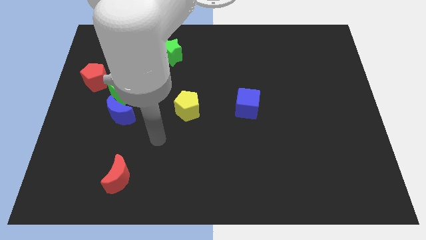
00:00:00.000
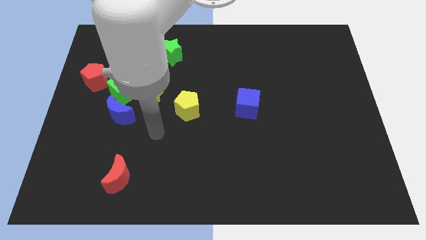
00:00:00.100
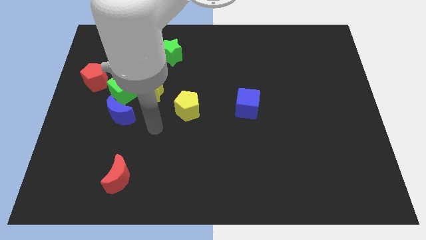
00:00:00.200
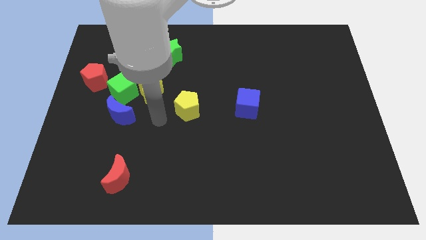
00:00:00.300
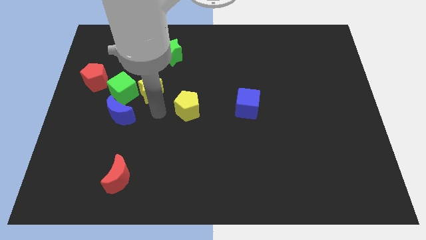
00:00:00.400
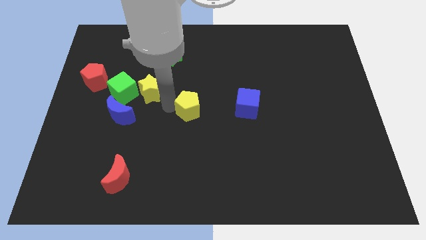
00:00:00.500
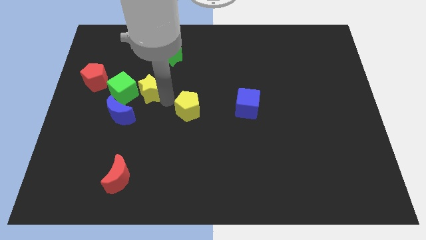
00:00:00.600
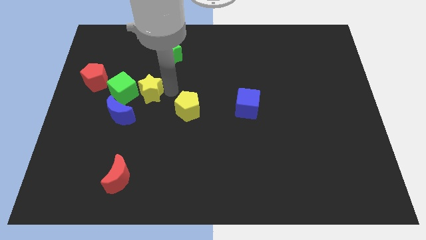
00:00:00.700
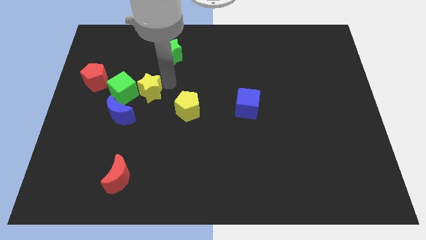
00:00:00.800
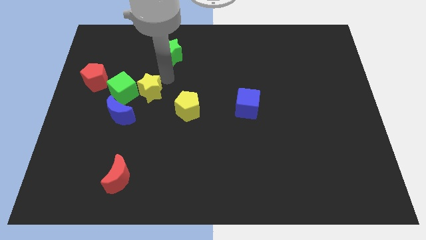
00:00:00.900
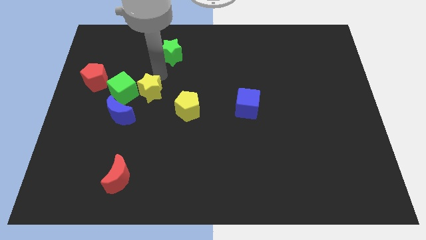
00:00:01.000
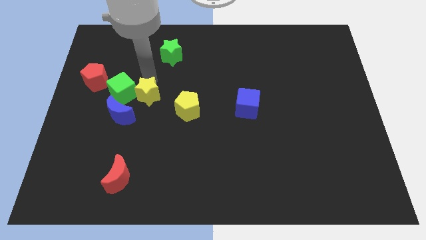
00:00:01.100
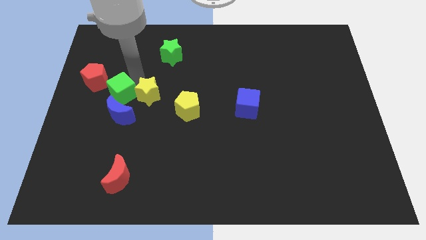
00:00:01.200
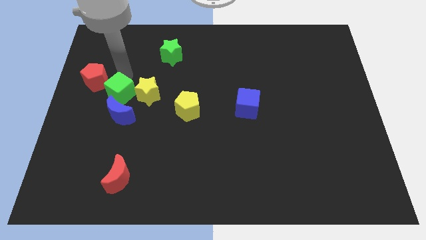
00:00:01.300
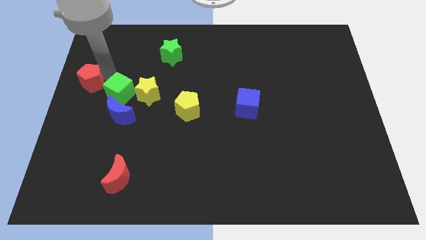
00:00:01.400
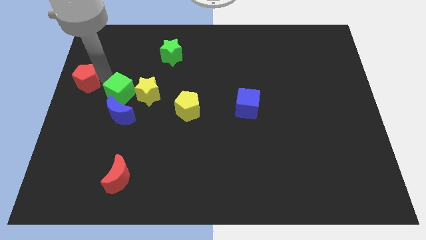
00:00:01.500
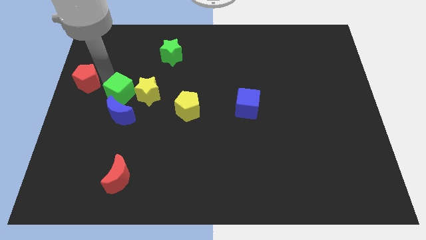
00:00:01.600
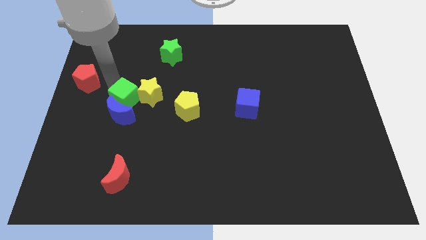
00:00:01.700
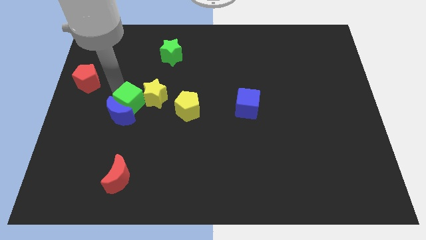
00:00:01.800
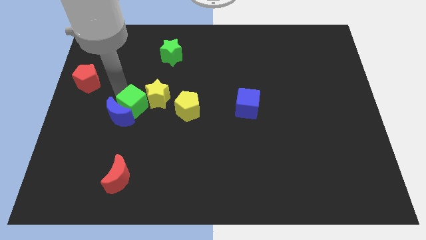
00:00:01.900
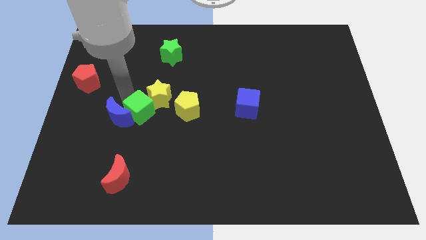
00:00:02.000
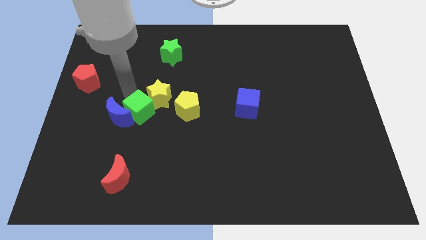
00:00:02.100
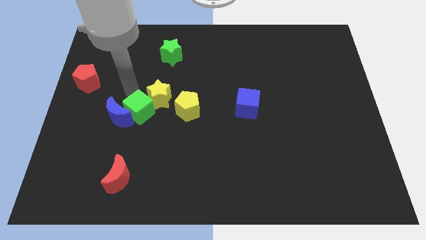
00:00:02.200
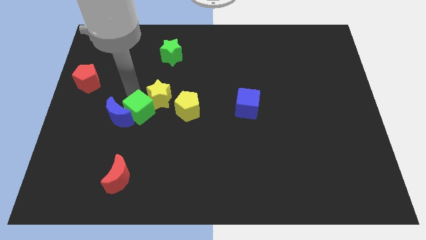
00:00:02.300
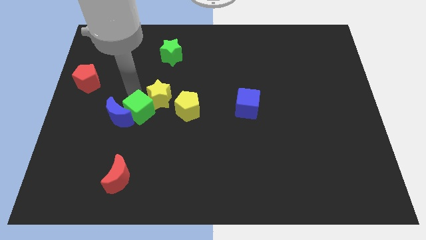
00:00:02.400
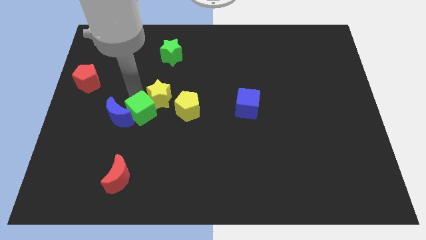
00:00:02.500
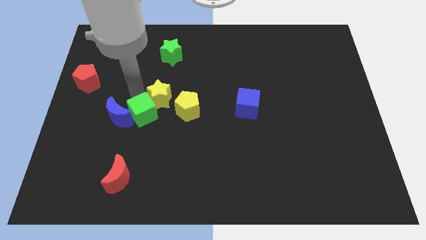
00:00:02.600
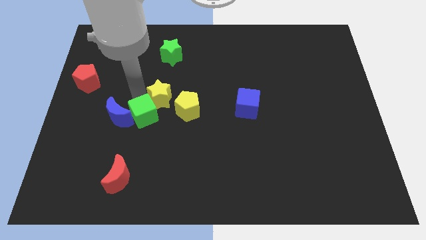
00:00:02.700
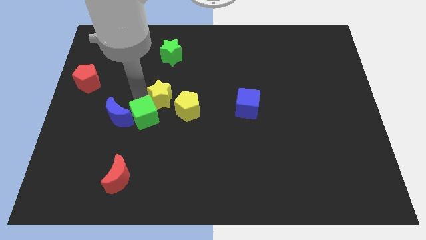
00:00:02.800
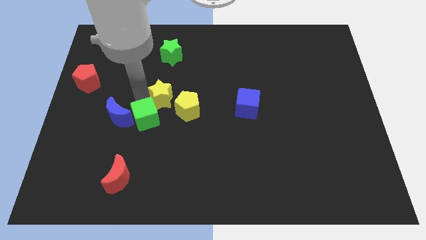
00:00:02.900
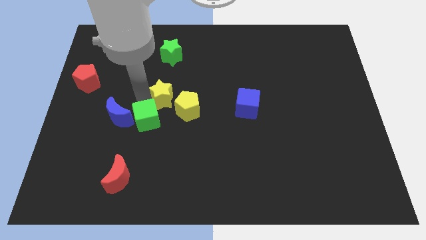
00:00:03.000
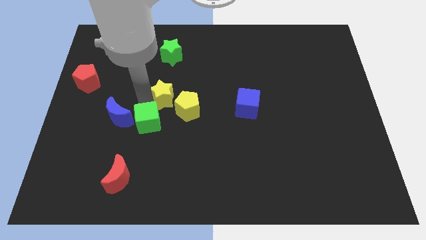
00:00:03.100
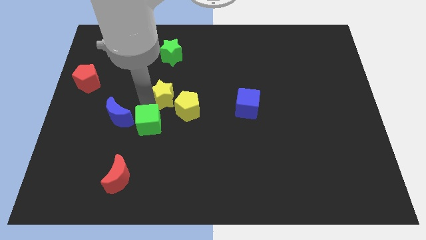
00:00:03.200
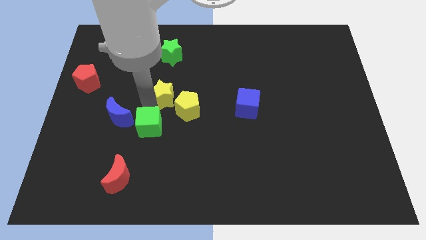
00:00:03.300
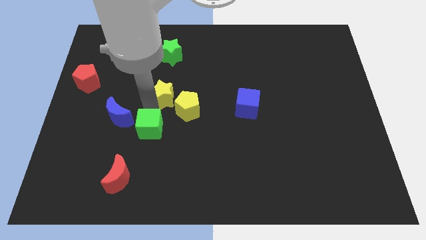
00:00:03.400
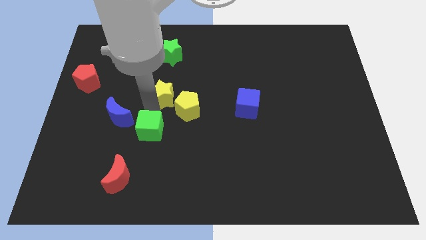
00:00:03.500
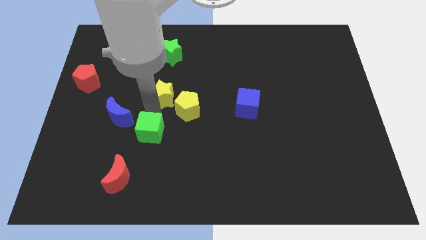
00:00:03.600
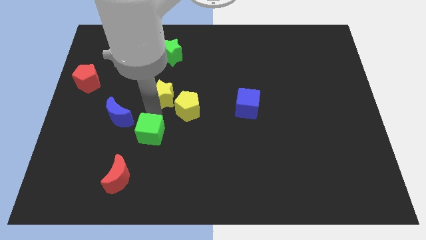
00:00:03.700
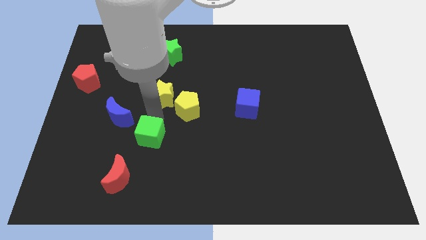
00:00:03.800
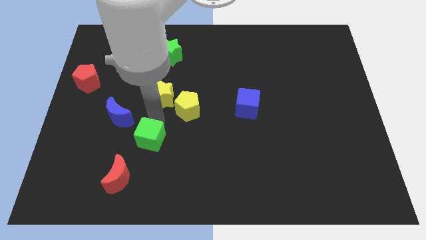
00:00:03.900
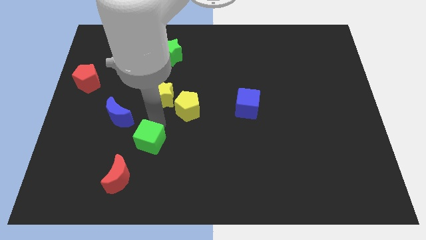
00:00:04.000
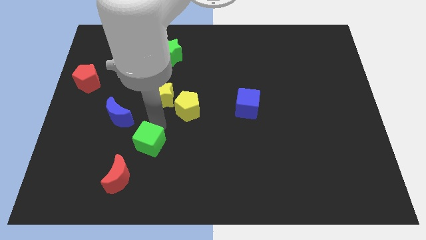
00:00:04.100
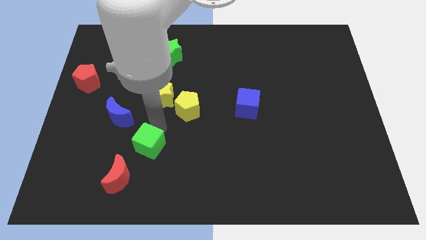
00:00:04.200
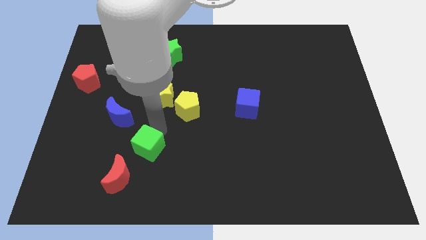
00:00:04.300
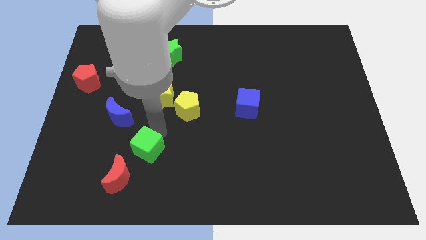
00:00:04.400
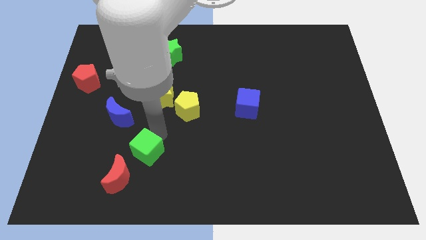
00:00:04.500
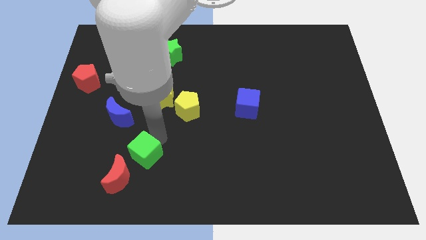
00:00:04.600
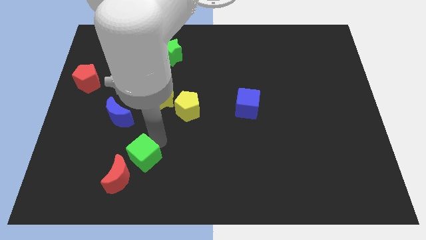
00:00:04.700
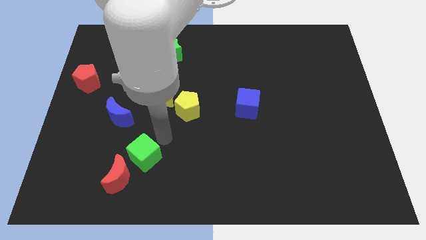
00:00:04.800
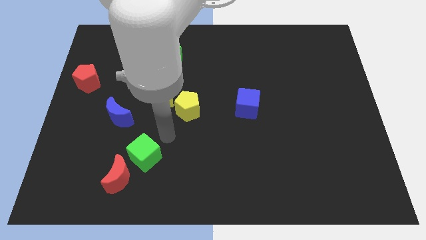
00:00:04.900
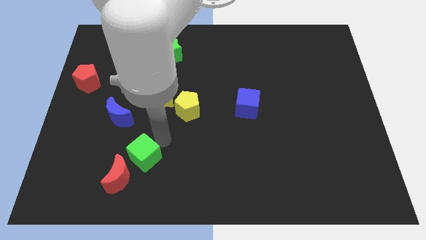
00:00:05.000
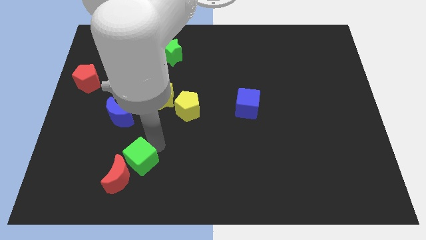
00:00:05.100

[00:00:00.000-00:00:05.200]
move the green cube close to the red moon

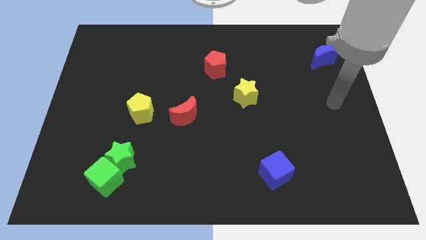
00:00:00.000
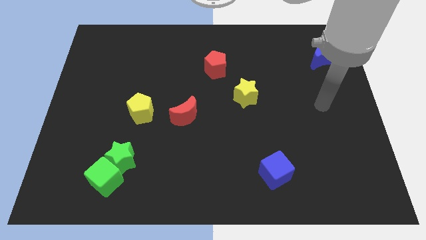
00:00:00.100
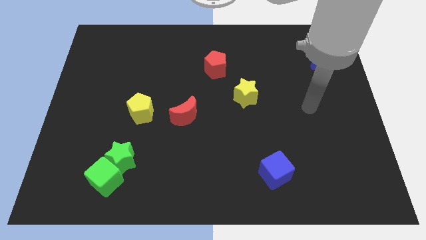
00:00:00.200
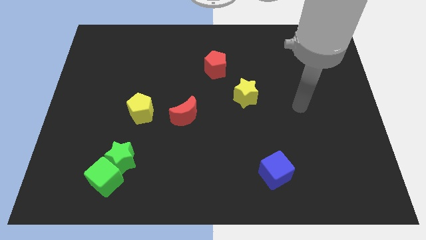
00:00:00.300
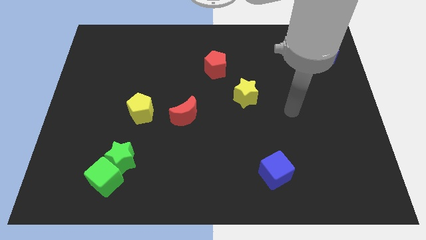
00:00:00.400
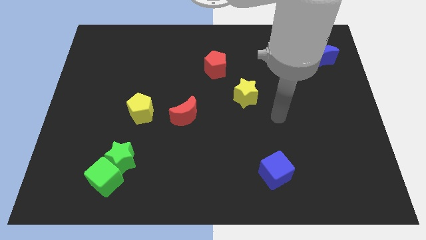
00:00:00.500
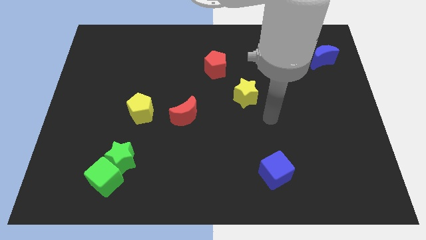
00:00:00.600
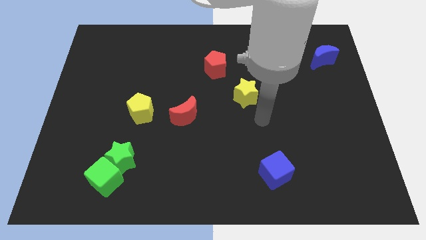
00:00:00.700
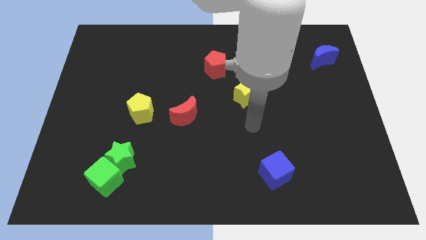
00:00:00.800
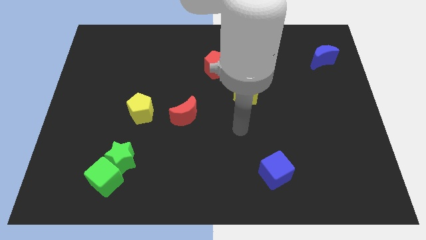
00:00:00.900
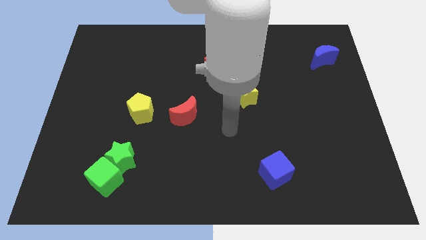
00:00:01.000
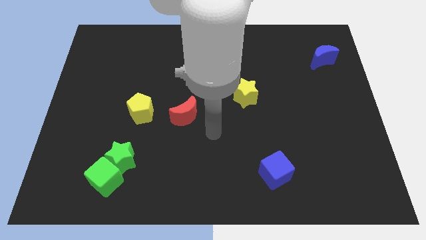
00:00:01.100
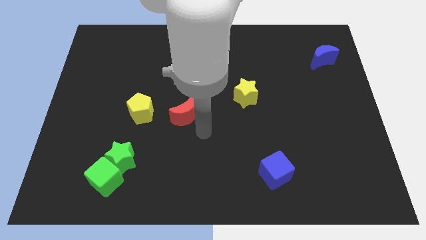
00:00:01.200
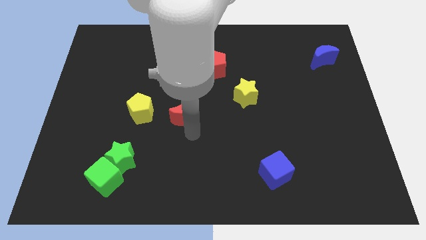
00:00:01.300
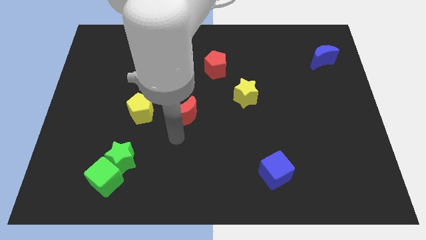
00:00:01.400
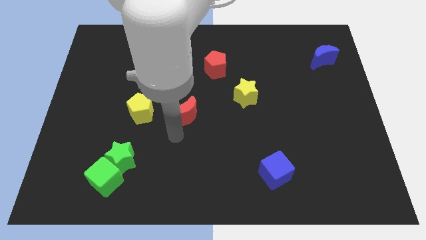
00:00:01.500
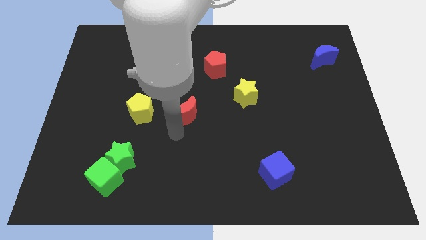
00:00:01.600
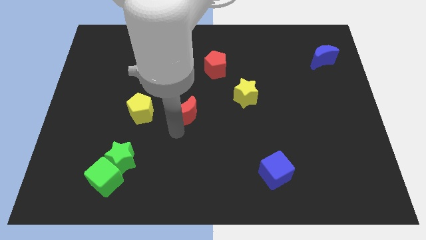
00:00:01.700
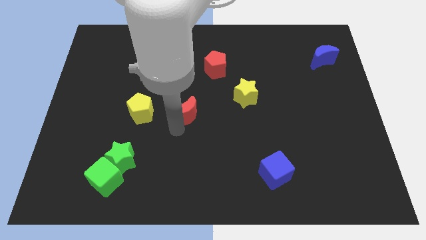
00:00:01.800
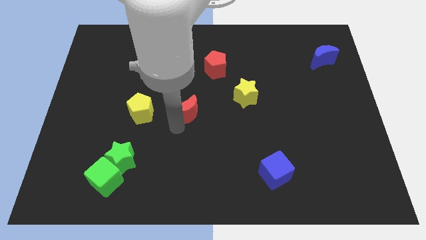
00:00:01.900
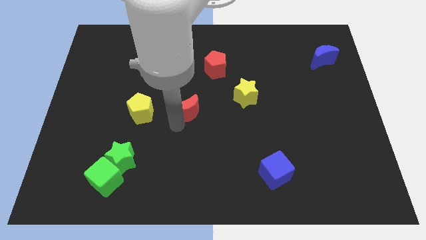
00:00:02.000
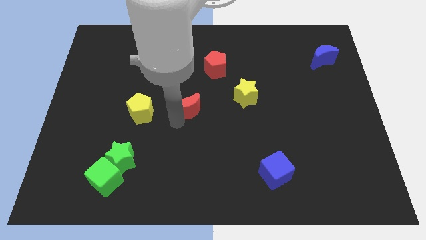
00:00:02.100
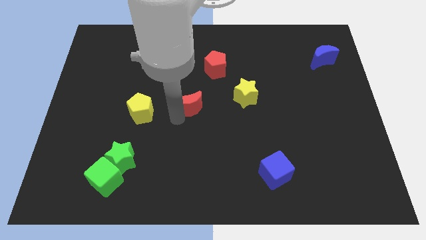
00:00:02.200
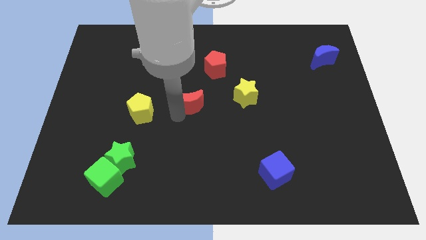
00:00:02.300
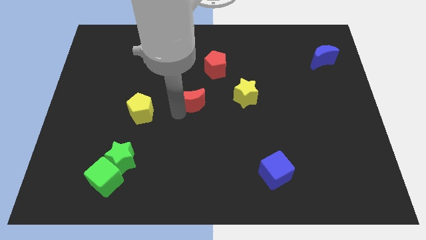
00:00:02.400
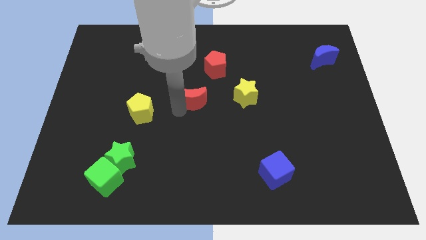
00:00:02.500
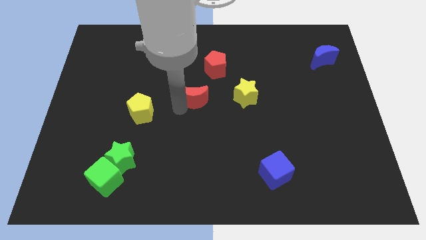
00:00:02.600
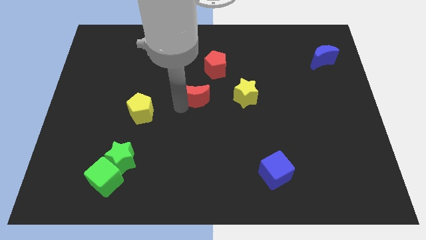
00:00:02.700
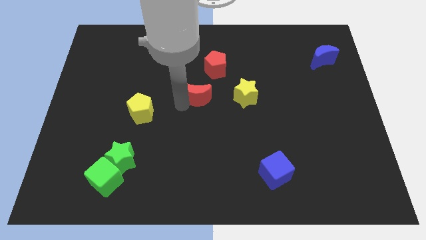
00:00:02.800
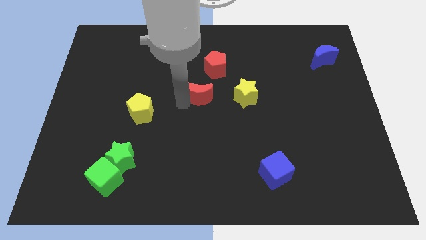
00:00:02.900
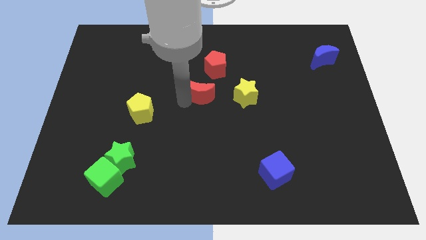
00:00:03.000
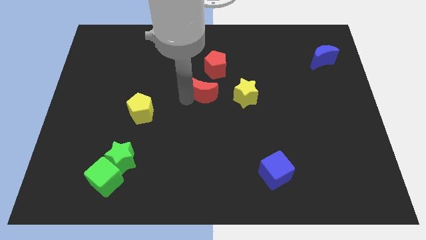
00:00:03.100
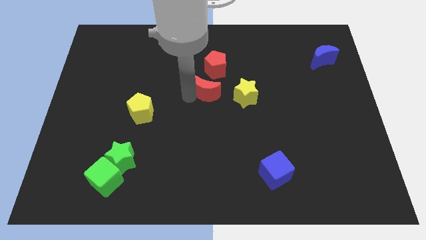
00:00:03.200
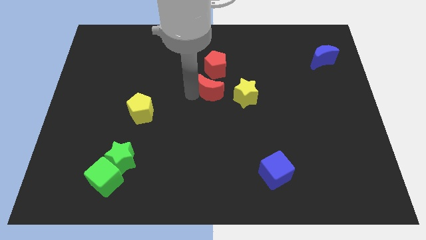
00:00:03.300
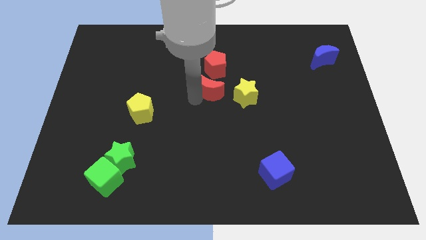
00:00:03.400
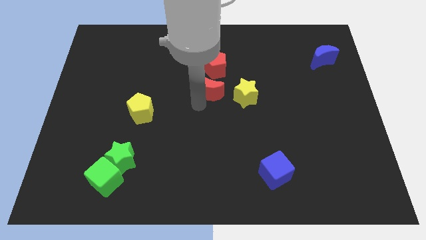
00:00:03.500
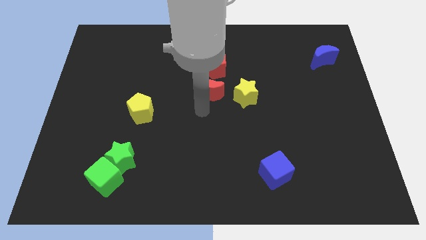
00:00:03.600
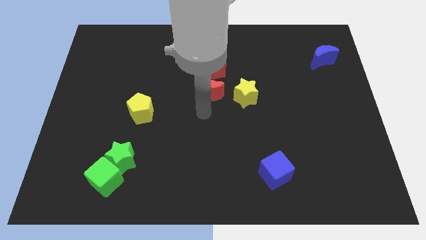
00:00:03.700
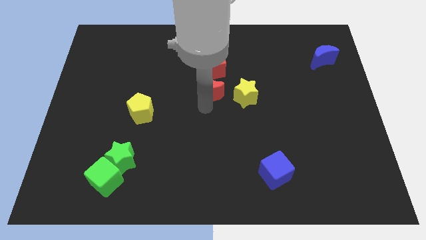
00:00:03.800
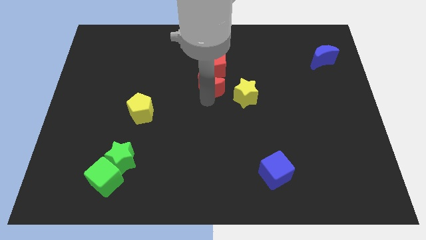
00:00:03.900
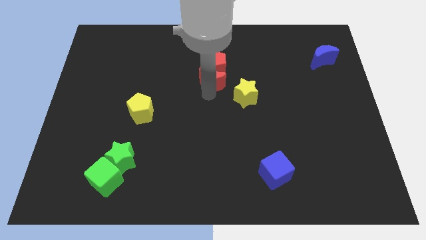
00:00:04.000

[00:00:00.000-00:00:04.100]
move the red moon to the red pentagon
